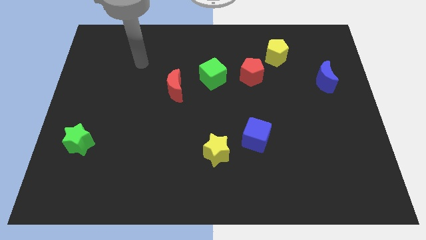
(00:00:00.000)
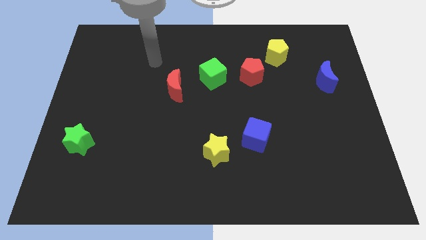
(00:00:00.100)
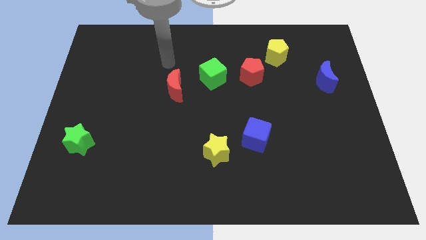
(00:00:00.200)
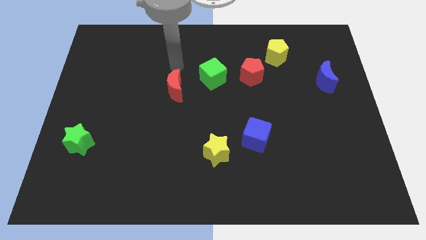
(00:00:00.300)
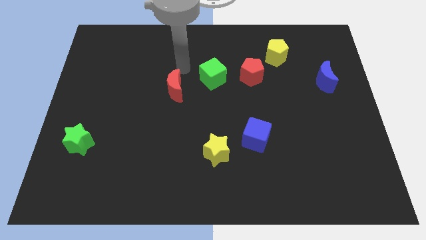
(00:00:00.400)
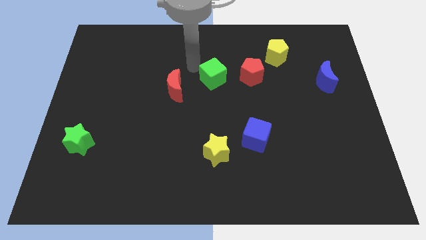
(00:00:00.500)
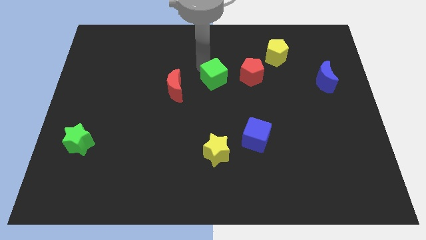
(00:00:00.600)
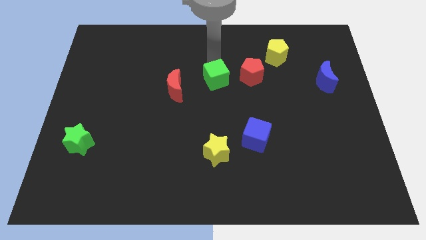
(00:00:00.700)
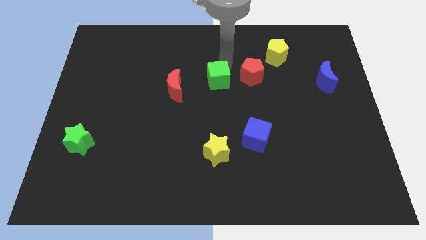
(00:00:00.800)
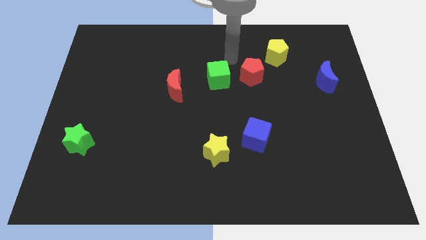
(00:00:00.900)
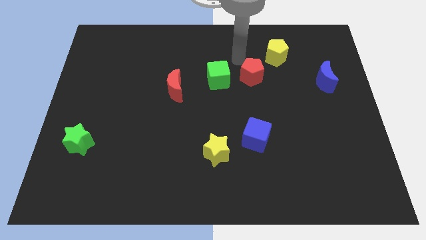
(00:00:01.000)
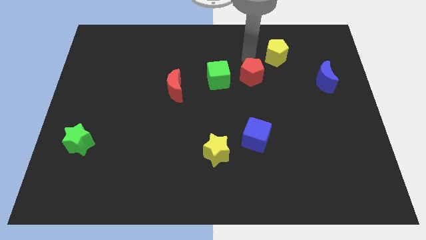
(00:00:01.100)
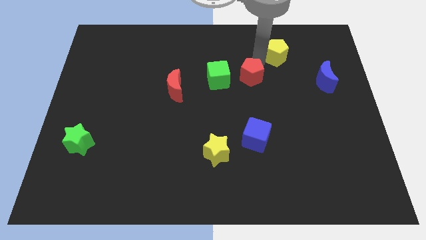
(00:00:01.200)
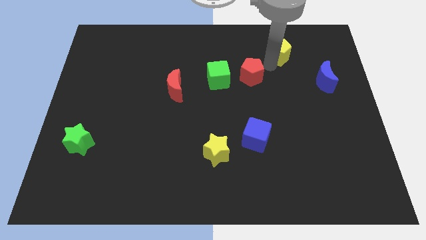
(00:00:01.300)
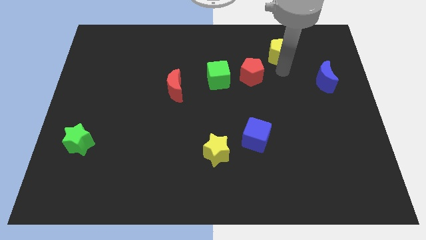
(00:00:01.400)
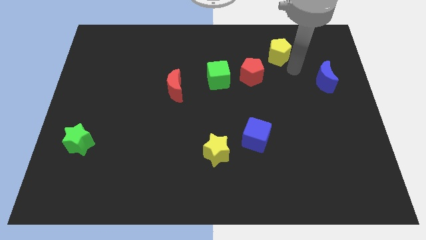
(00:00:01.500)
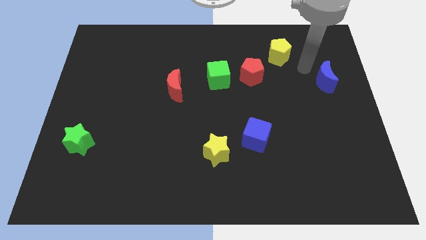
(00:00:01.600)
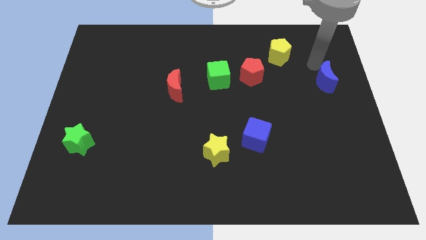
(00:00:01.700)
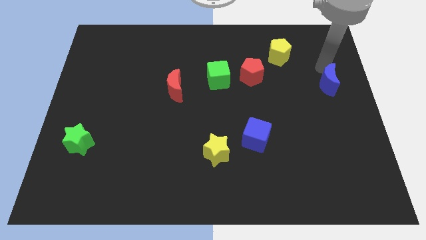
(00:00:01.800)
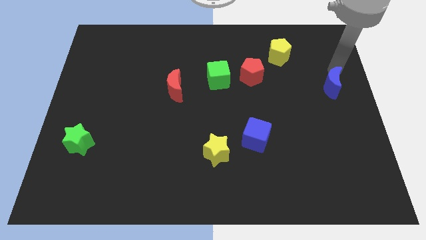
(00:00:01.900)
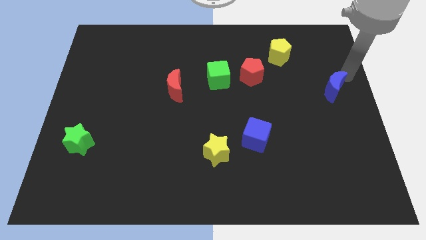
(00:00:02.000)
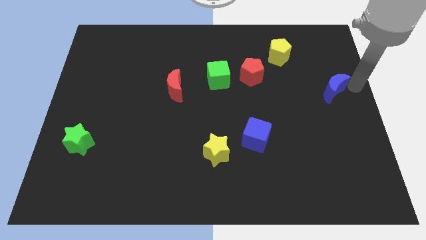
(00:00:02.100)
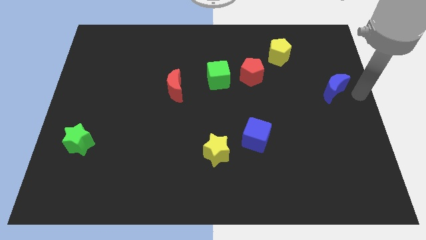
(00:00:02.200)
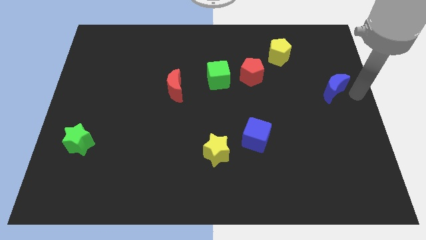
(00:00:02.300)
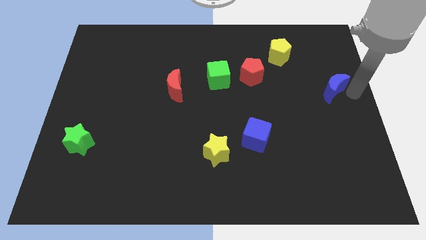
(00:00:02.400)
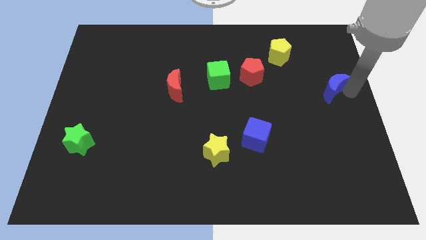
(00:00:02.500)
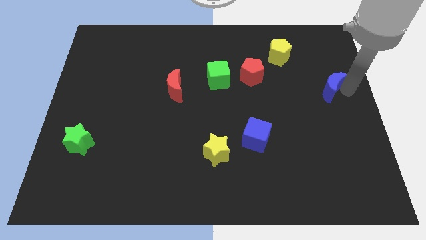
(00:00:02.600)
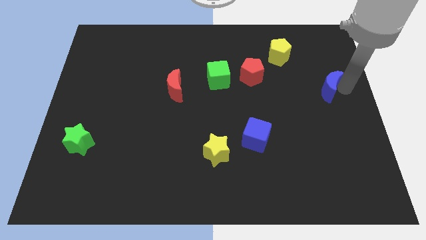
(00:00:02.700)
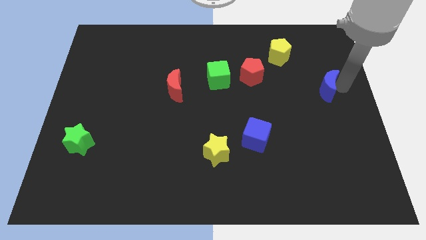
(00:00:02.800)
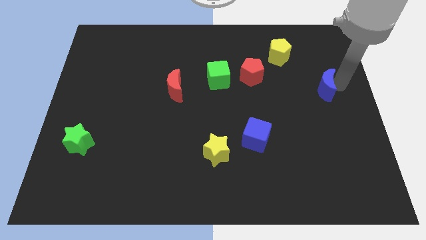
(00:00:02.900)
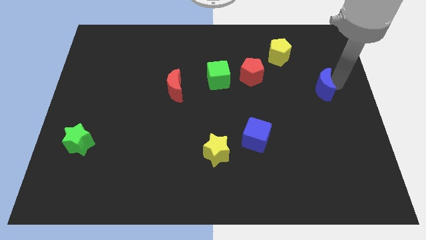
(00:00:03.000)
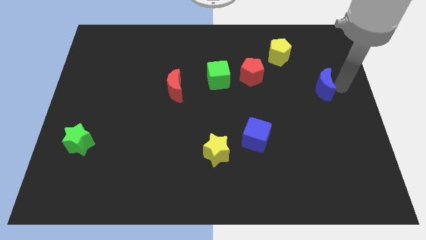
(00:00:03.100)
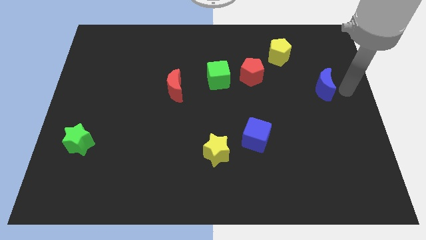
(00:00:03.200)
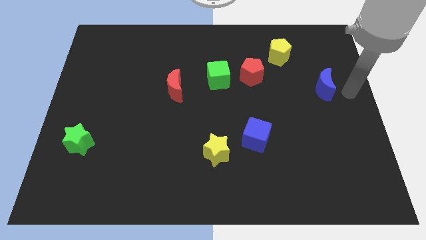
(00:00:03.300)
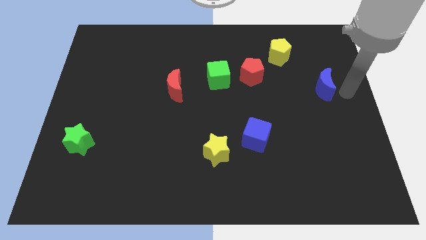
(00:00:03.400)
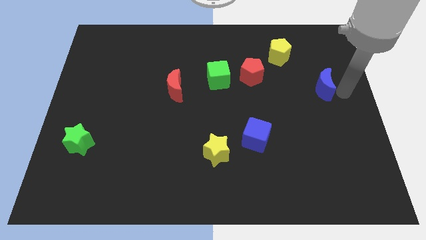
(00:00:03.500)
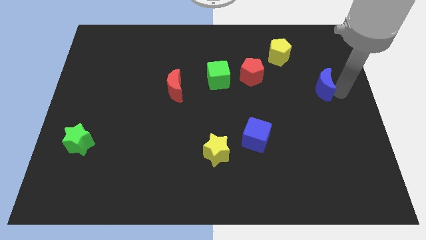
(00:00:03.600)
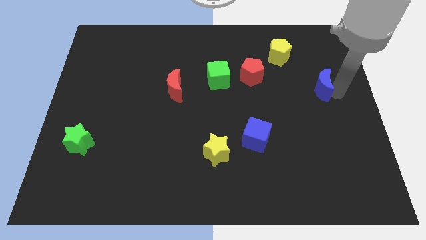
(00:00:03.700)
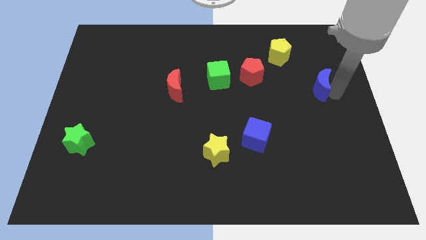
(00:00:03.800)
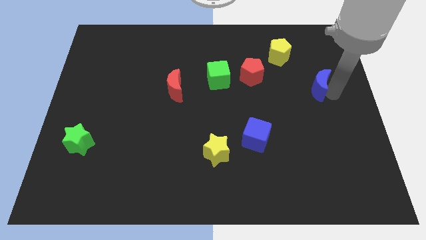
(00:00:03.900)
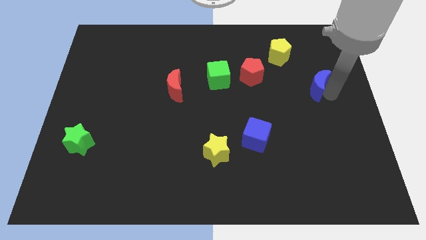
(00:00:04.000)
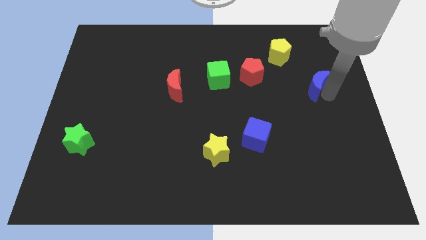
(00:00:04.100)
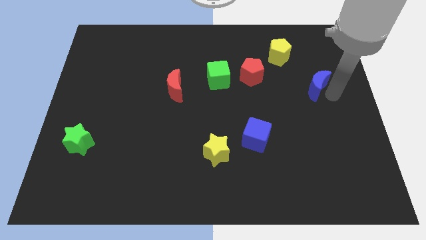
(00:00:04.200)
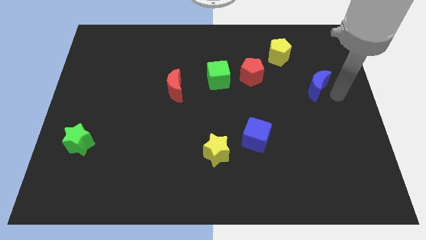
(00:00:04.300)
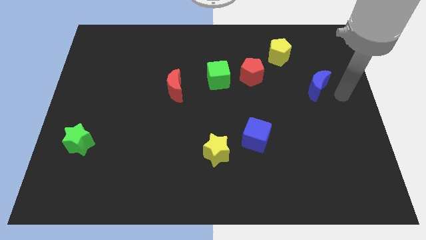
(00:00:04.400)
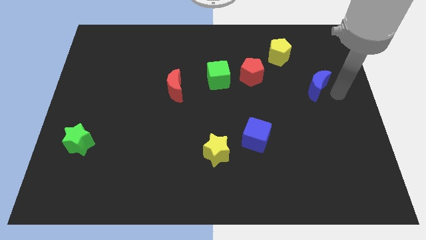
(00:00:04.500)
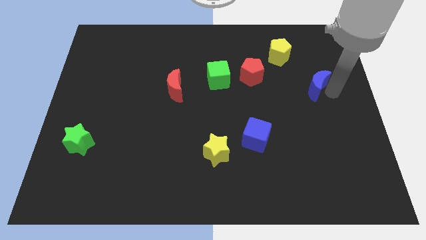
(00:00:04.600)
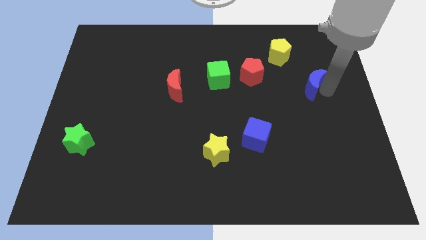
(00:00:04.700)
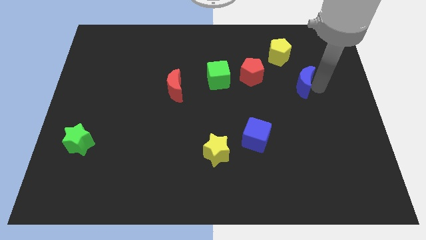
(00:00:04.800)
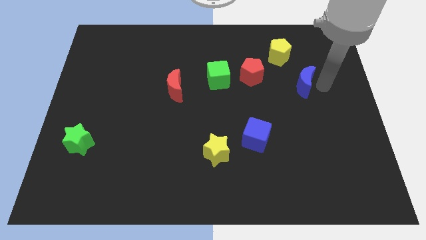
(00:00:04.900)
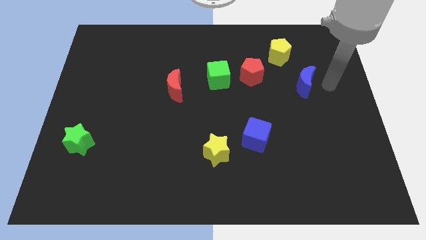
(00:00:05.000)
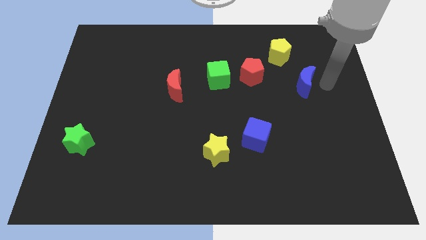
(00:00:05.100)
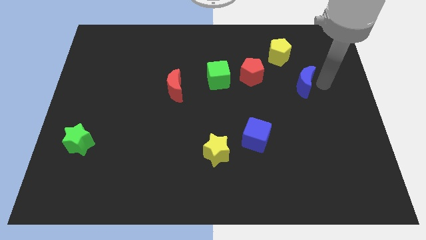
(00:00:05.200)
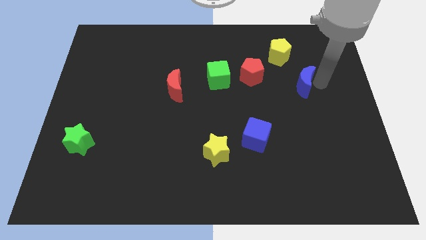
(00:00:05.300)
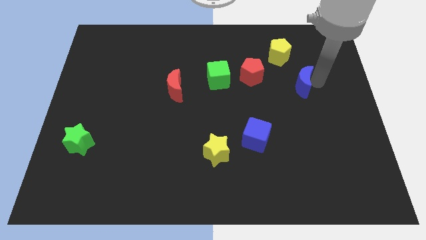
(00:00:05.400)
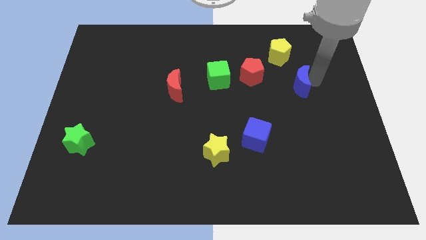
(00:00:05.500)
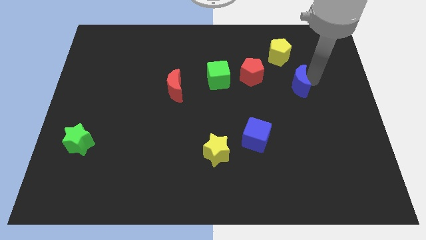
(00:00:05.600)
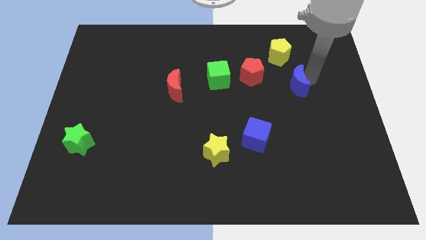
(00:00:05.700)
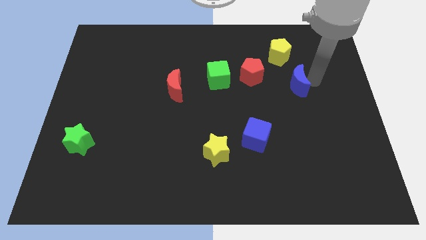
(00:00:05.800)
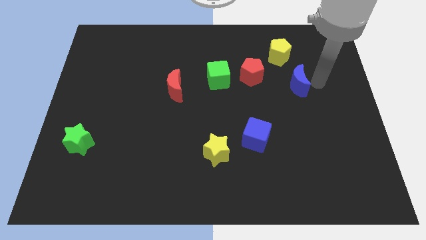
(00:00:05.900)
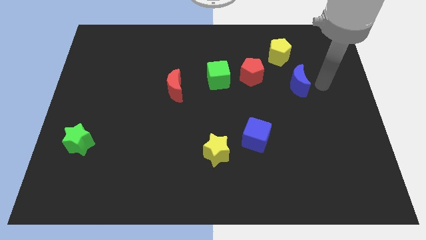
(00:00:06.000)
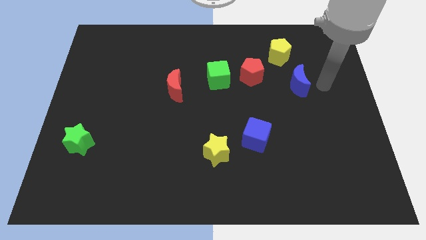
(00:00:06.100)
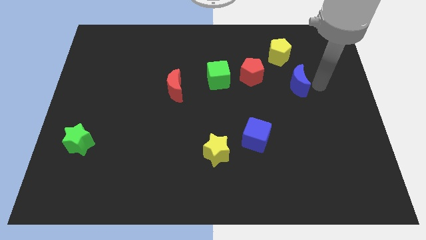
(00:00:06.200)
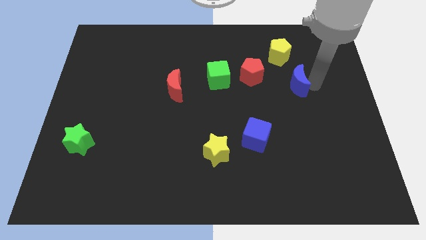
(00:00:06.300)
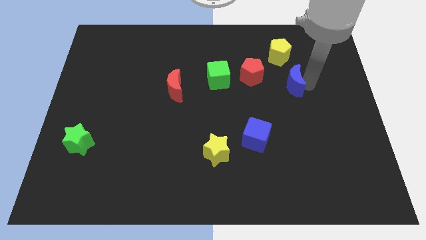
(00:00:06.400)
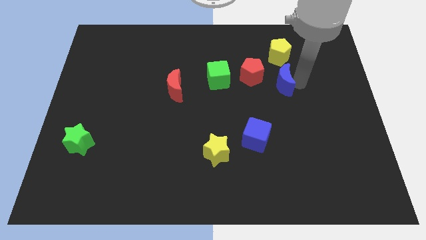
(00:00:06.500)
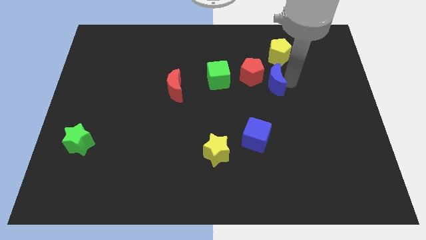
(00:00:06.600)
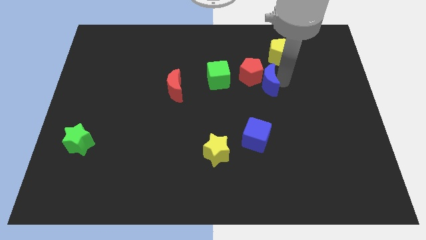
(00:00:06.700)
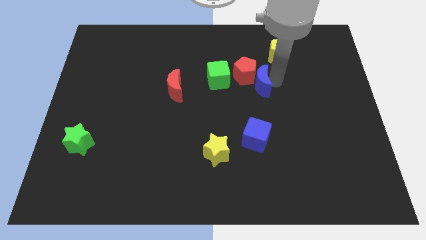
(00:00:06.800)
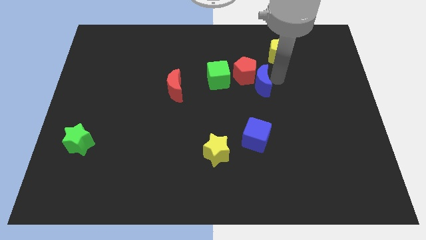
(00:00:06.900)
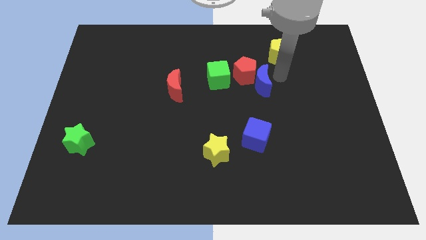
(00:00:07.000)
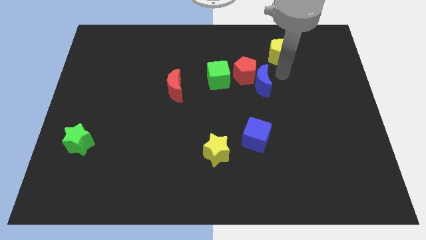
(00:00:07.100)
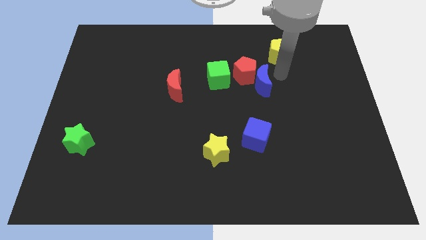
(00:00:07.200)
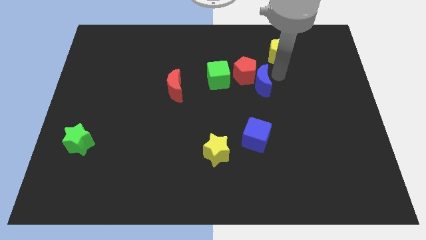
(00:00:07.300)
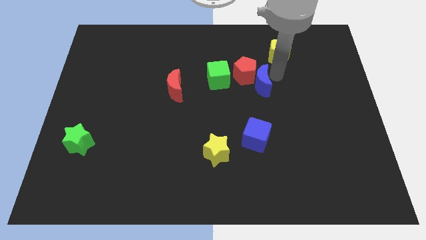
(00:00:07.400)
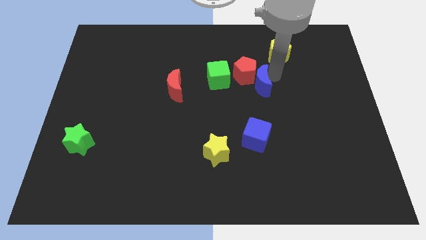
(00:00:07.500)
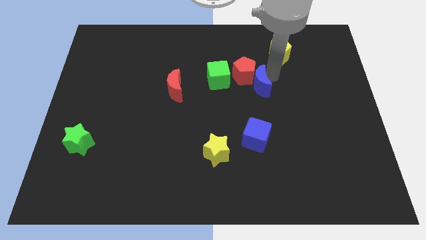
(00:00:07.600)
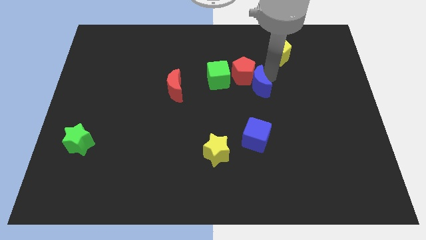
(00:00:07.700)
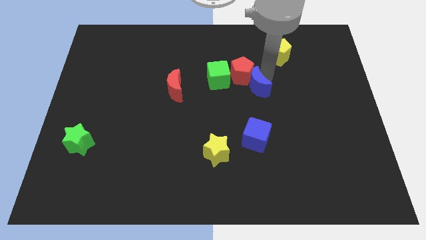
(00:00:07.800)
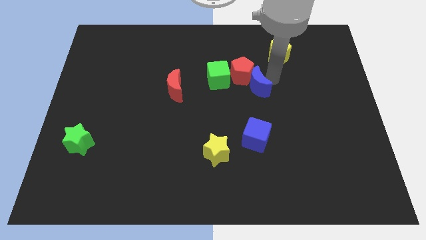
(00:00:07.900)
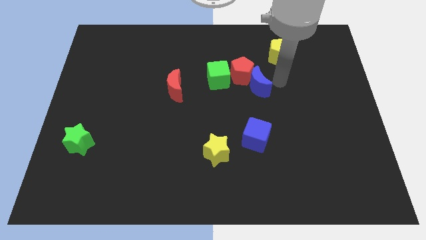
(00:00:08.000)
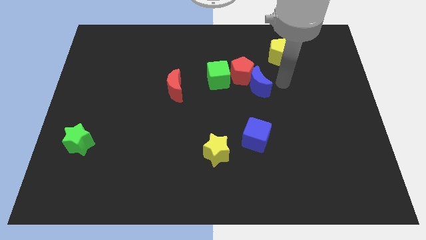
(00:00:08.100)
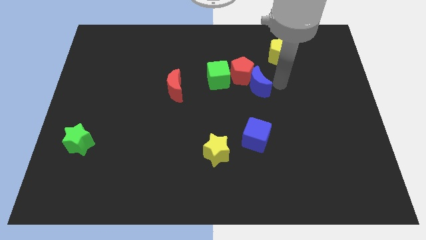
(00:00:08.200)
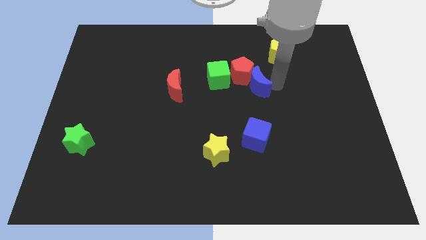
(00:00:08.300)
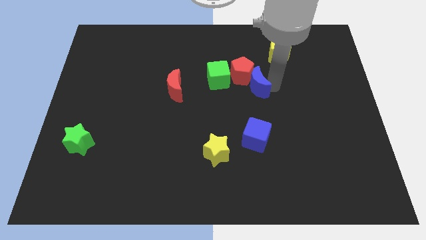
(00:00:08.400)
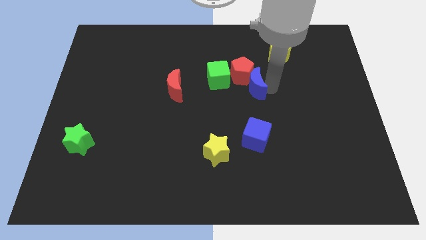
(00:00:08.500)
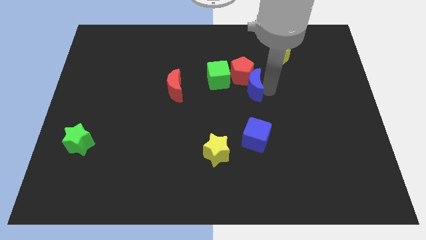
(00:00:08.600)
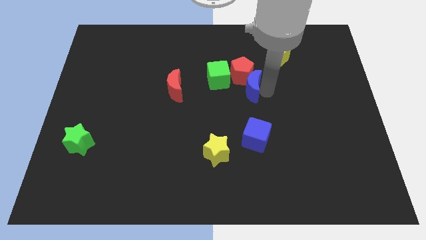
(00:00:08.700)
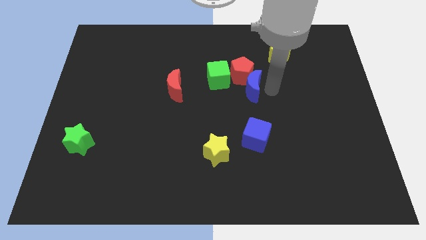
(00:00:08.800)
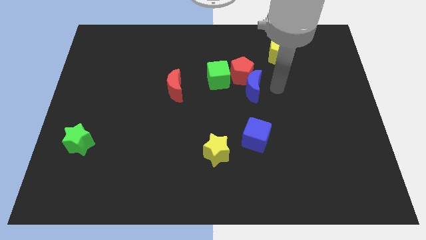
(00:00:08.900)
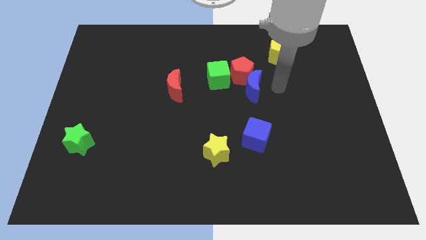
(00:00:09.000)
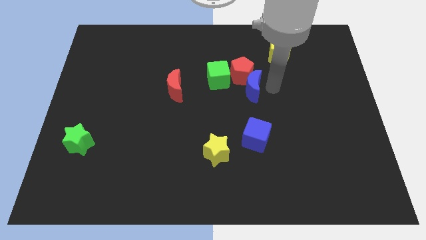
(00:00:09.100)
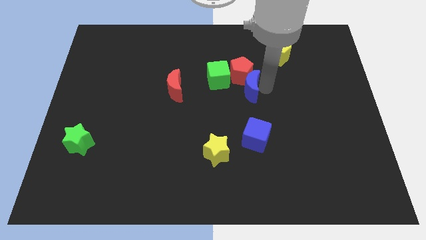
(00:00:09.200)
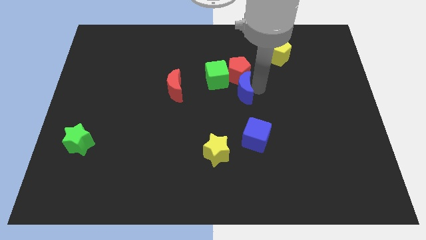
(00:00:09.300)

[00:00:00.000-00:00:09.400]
push the blue moon left
